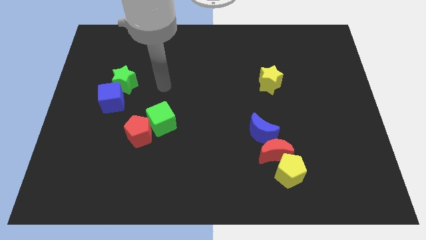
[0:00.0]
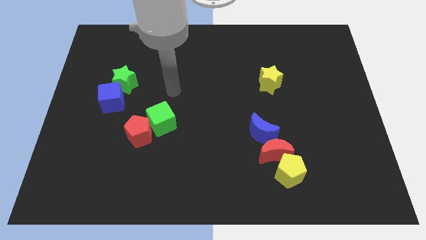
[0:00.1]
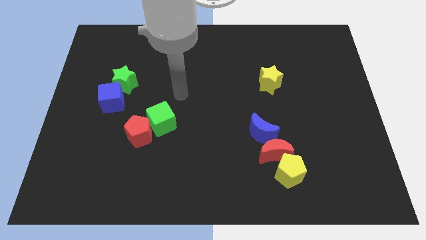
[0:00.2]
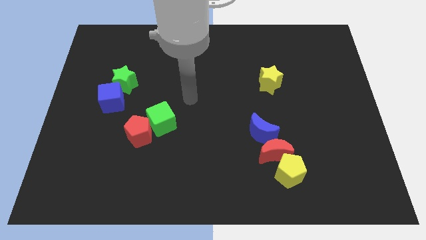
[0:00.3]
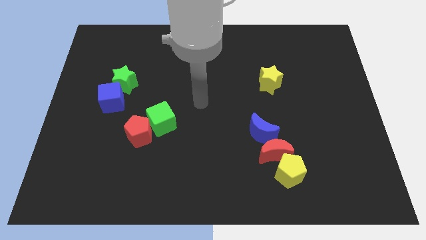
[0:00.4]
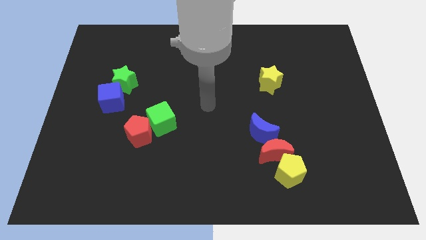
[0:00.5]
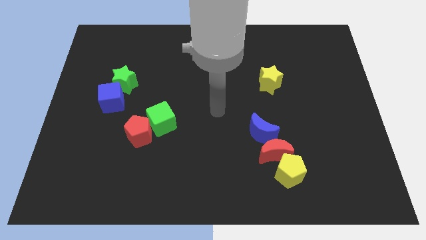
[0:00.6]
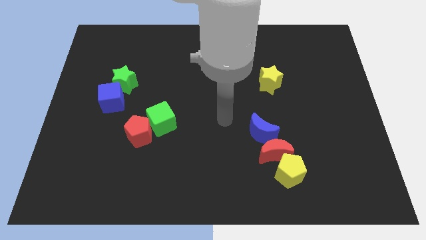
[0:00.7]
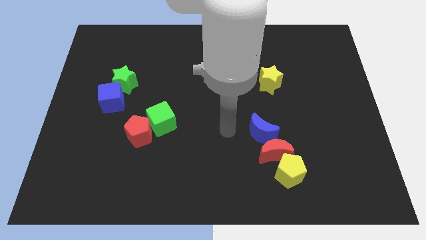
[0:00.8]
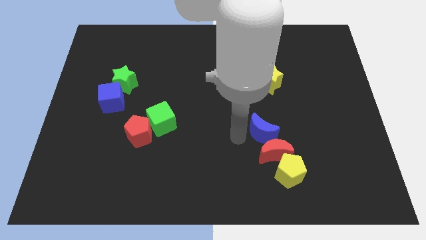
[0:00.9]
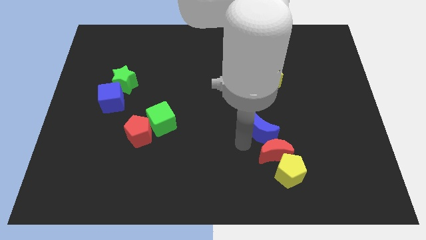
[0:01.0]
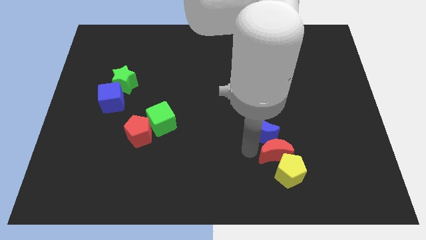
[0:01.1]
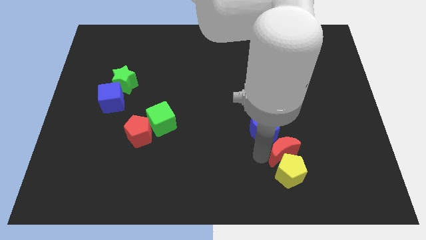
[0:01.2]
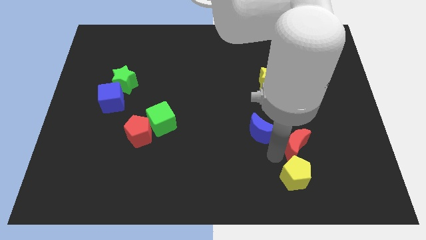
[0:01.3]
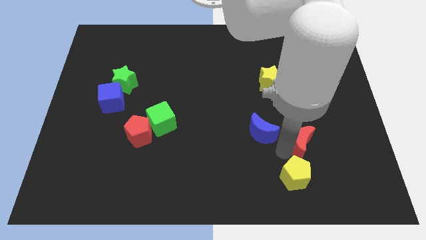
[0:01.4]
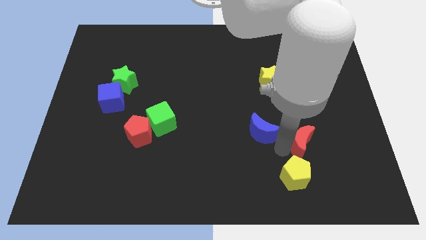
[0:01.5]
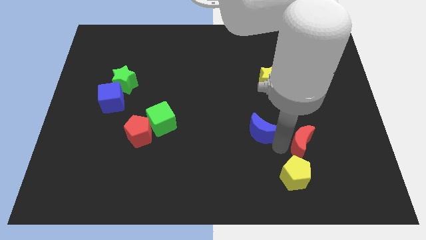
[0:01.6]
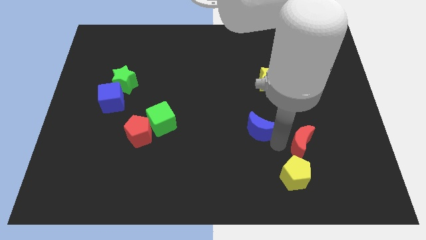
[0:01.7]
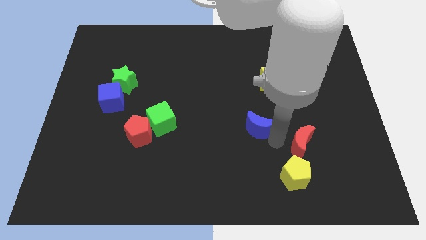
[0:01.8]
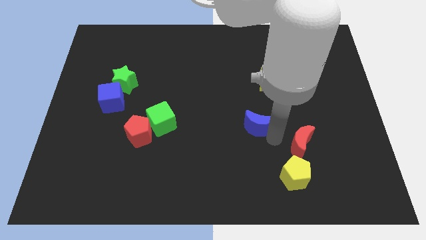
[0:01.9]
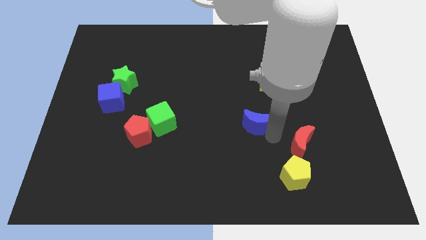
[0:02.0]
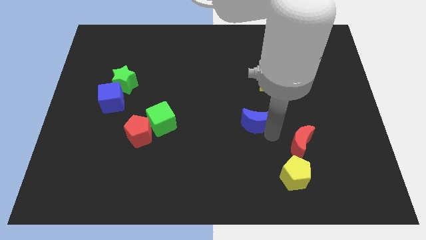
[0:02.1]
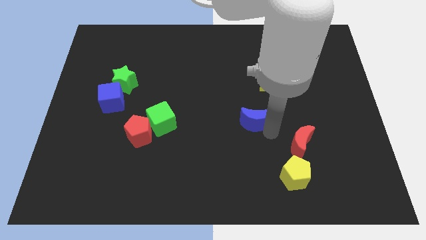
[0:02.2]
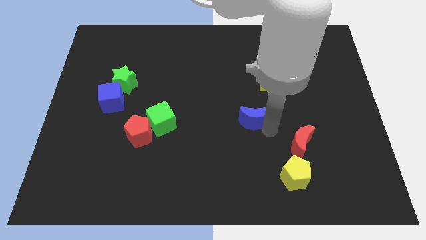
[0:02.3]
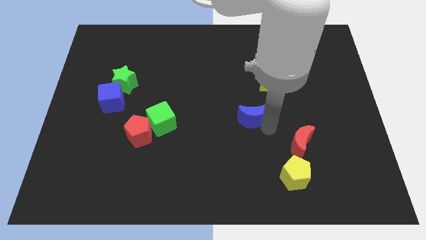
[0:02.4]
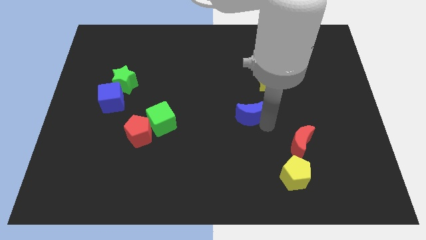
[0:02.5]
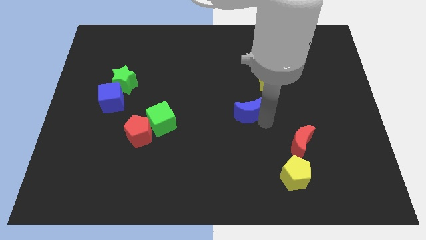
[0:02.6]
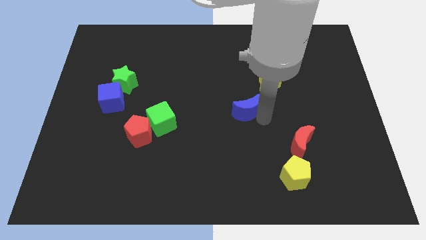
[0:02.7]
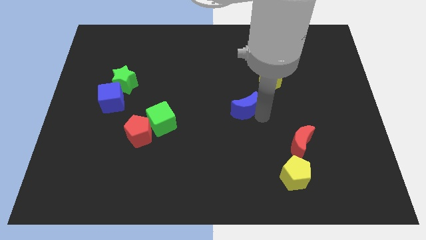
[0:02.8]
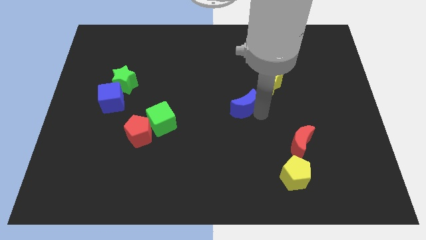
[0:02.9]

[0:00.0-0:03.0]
slide the blue moon up and left diagonally somewhat

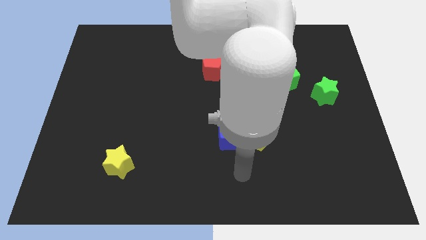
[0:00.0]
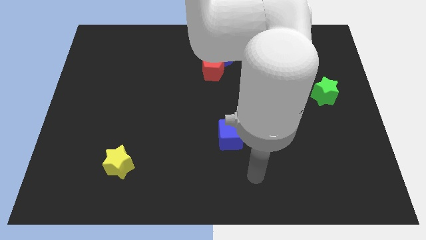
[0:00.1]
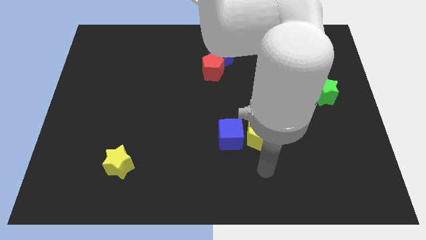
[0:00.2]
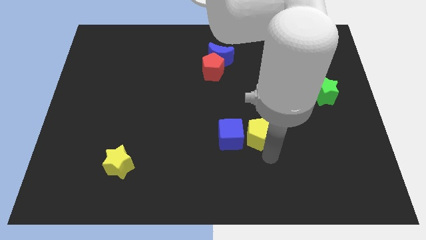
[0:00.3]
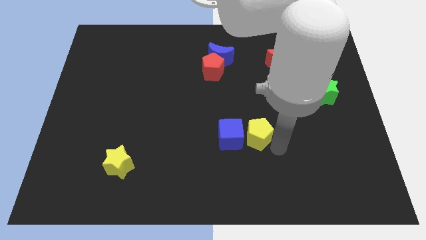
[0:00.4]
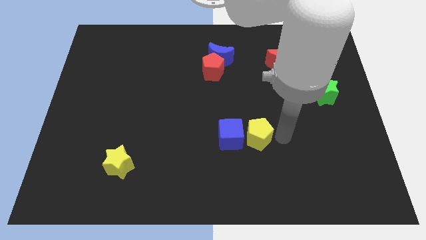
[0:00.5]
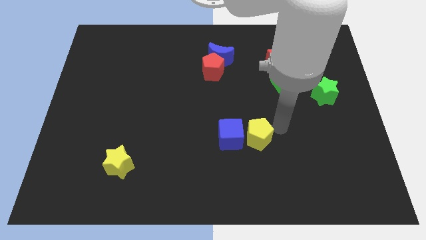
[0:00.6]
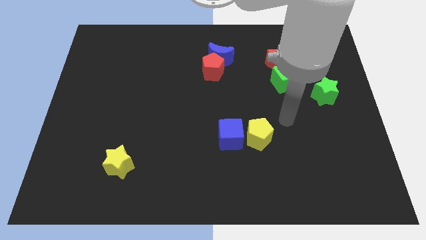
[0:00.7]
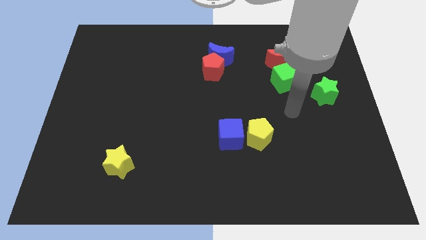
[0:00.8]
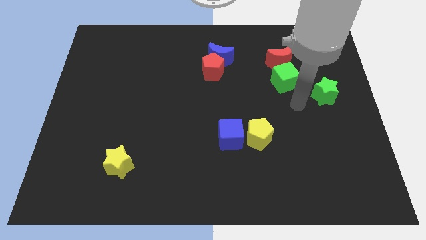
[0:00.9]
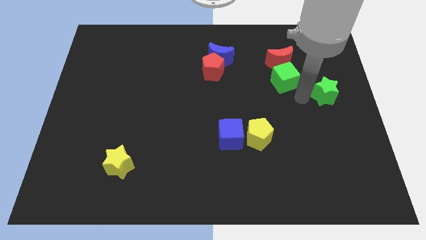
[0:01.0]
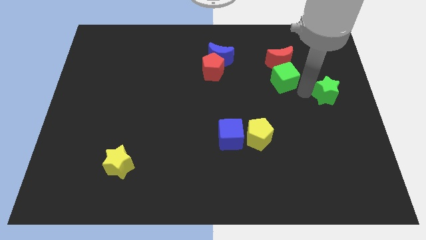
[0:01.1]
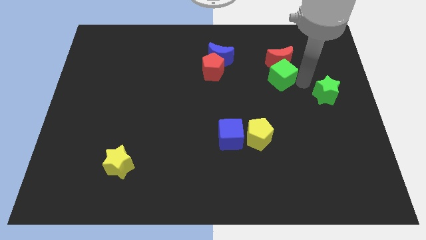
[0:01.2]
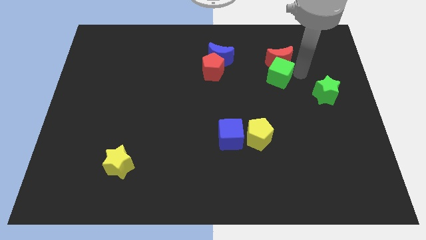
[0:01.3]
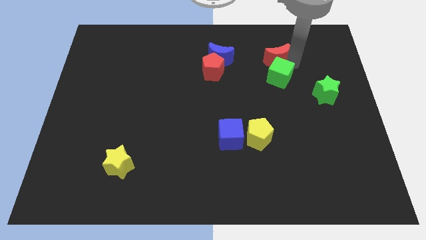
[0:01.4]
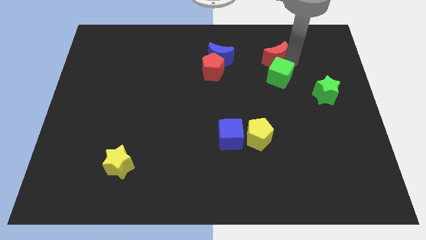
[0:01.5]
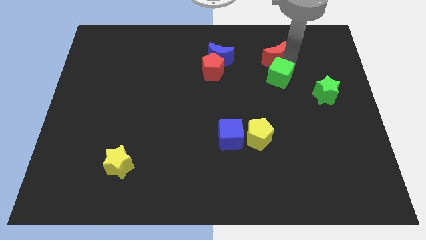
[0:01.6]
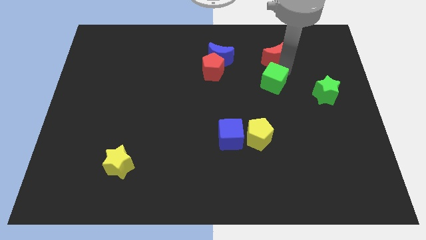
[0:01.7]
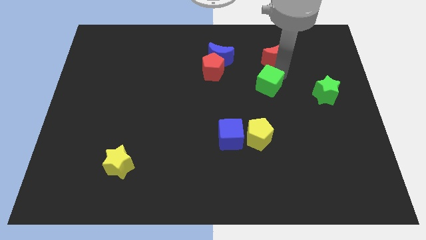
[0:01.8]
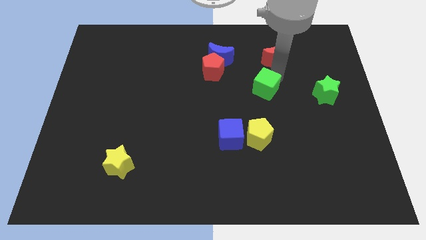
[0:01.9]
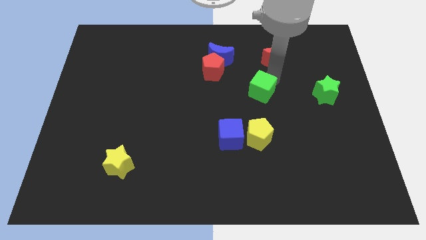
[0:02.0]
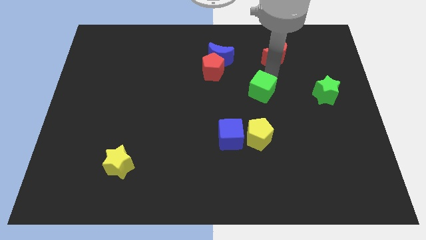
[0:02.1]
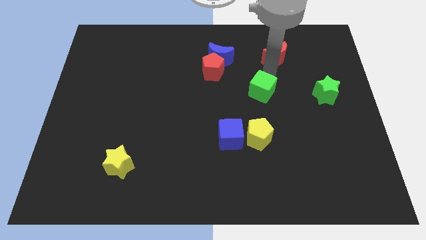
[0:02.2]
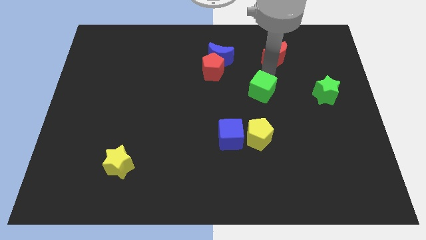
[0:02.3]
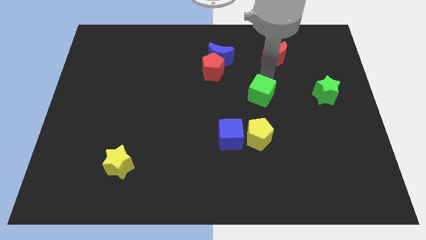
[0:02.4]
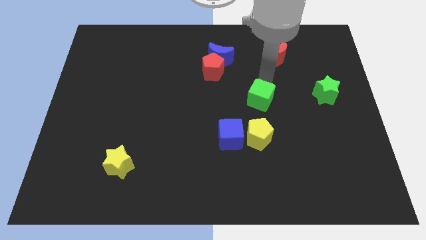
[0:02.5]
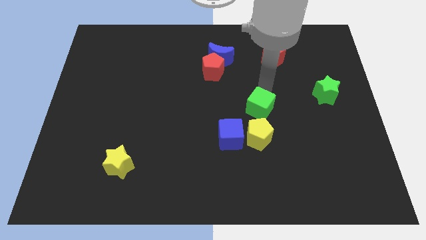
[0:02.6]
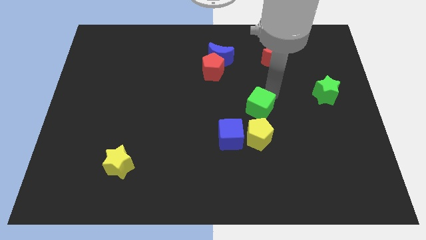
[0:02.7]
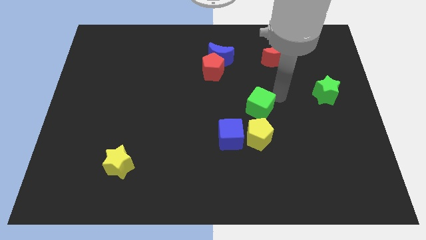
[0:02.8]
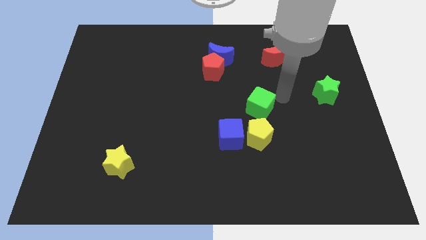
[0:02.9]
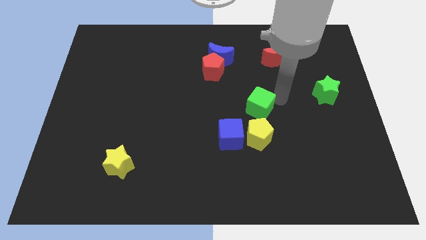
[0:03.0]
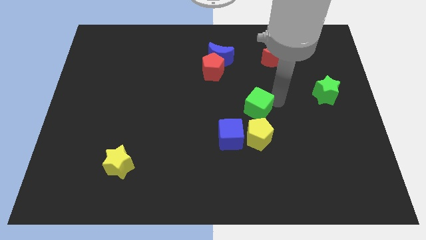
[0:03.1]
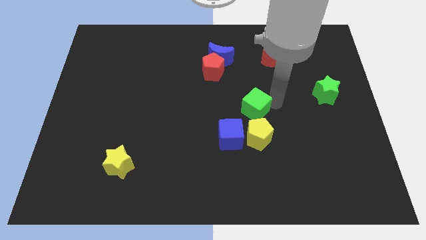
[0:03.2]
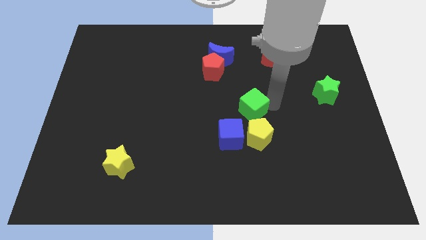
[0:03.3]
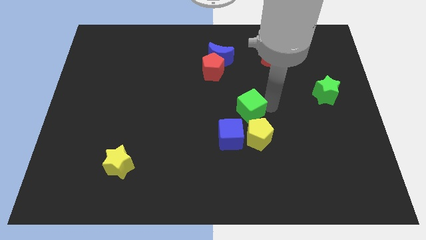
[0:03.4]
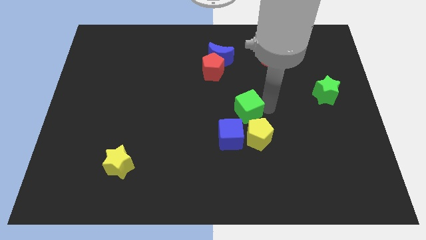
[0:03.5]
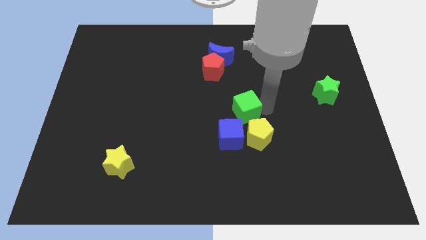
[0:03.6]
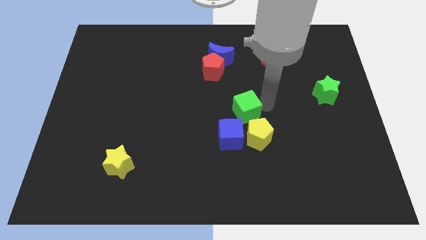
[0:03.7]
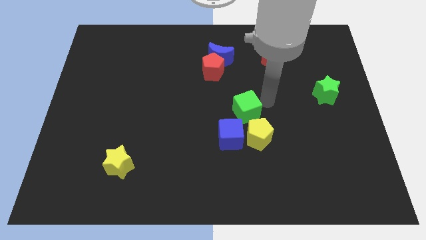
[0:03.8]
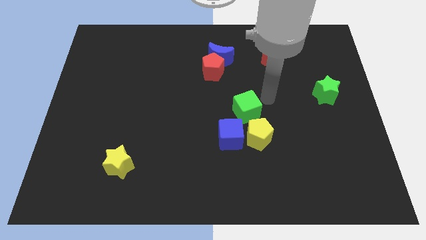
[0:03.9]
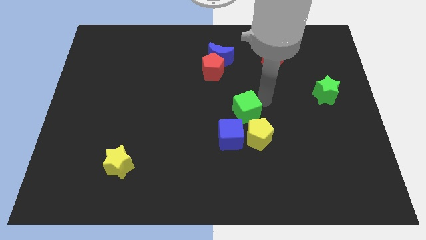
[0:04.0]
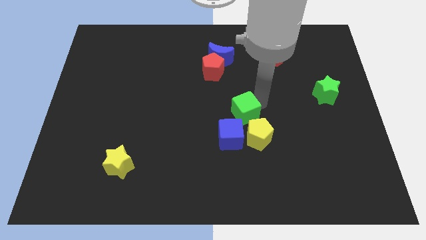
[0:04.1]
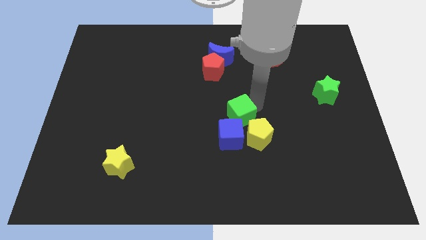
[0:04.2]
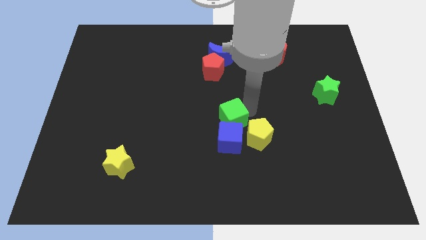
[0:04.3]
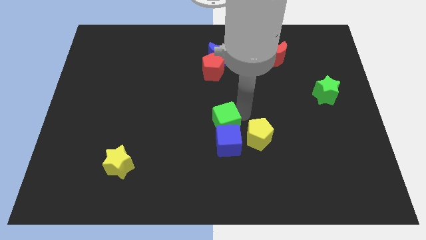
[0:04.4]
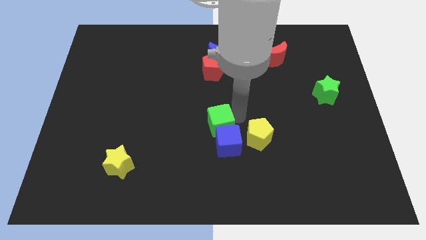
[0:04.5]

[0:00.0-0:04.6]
move the green cube downwards and then to the left

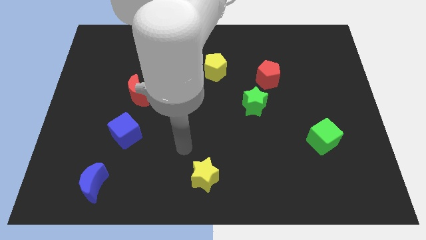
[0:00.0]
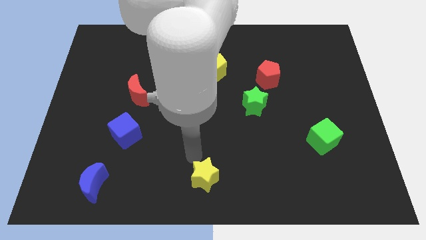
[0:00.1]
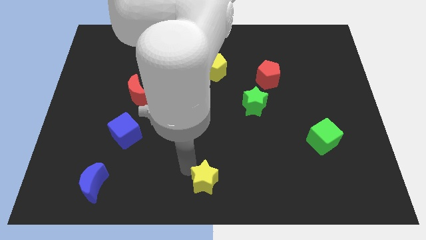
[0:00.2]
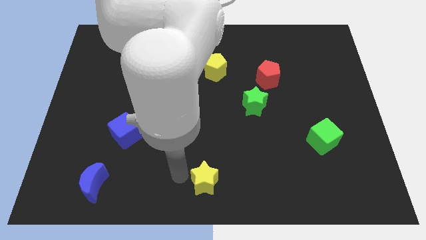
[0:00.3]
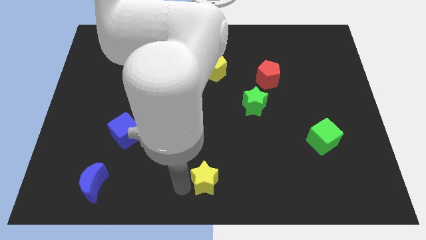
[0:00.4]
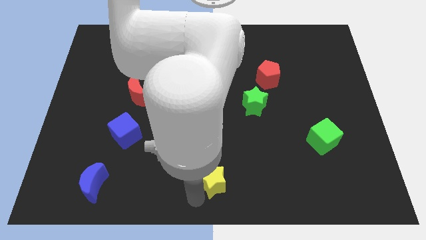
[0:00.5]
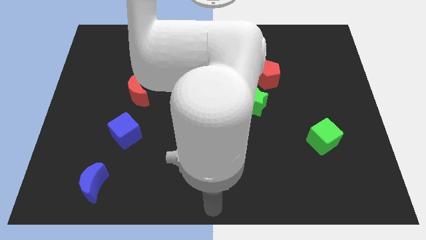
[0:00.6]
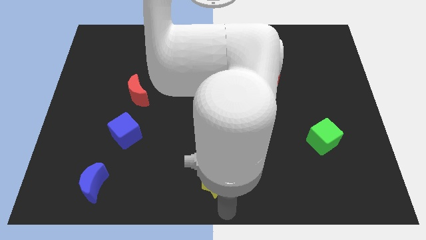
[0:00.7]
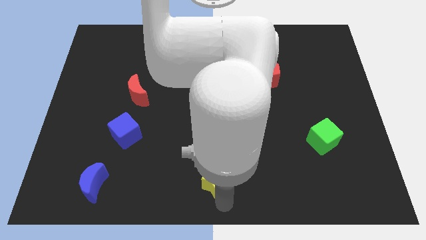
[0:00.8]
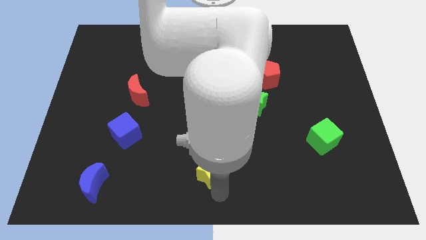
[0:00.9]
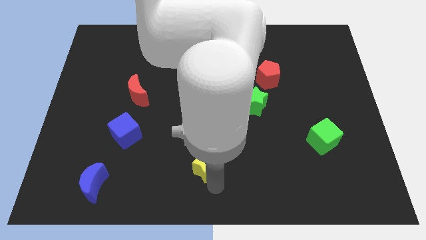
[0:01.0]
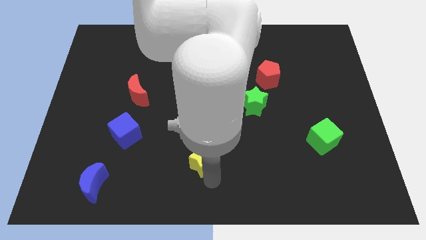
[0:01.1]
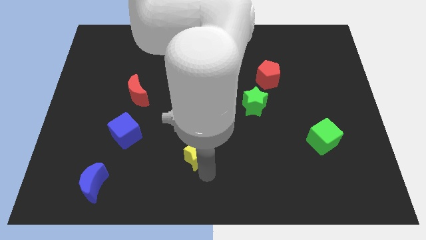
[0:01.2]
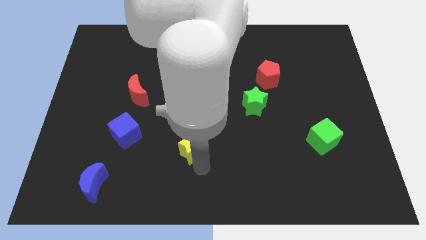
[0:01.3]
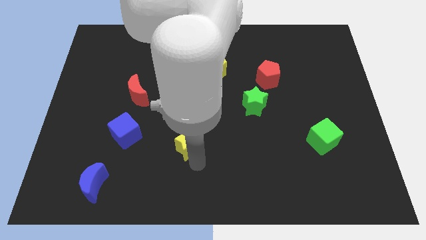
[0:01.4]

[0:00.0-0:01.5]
push the yellow star up a little
